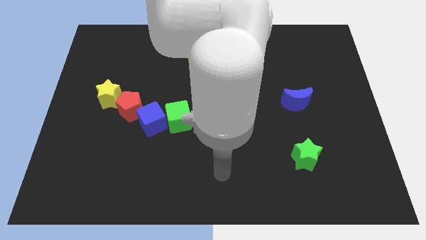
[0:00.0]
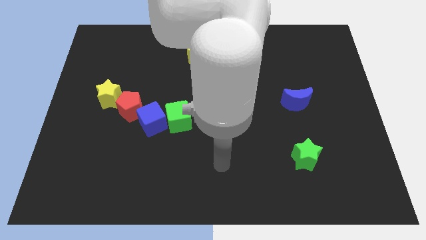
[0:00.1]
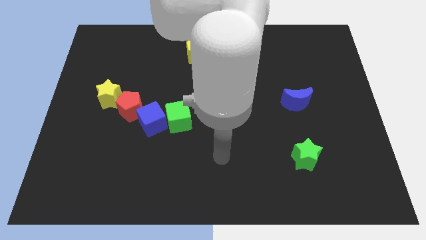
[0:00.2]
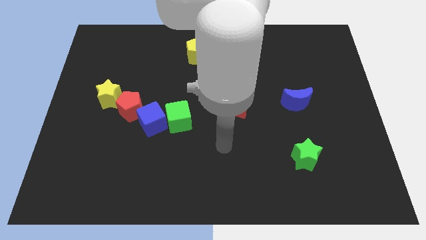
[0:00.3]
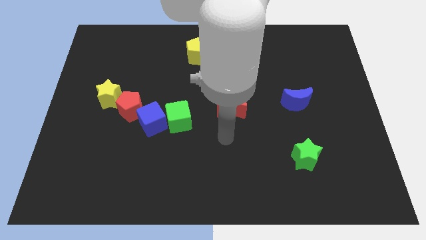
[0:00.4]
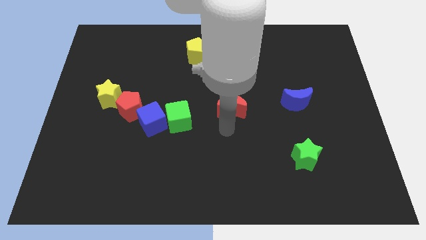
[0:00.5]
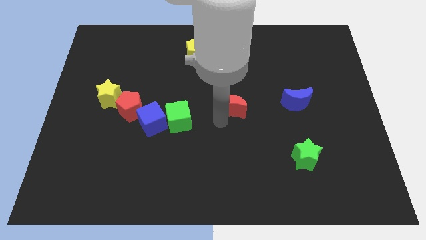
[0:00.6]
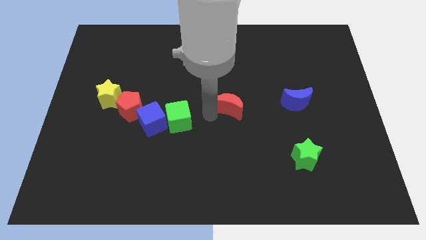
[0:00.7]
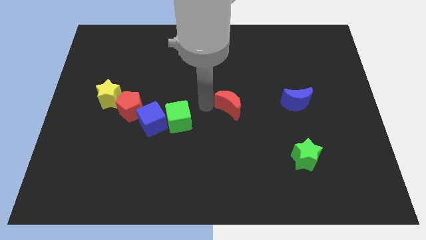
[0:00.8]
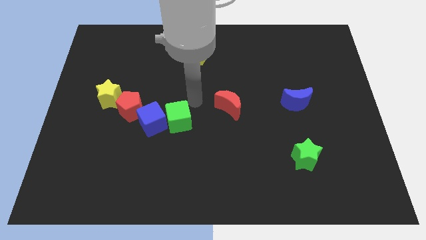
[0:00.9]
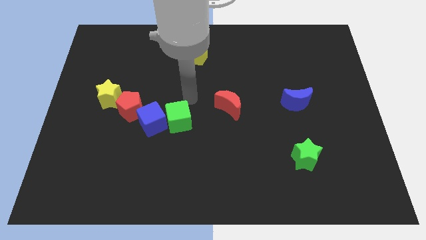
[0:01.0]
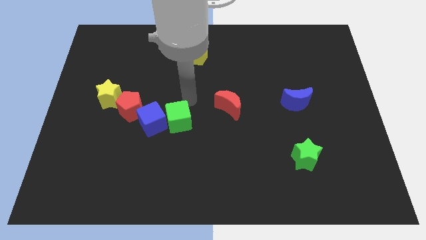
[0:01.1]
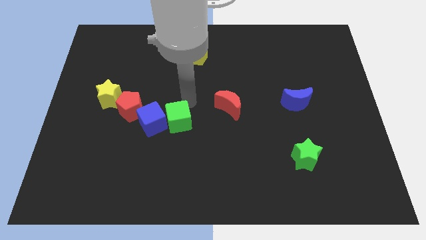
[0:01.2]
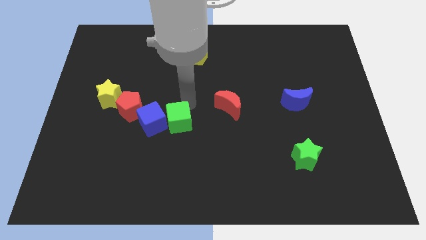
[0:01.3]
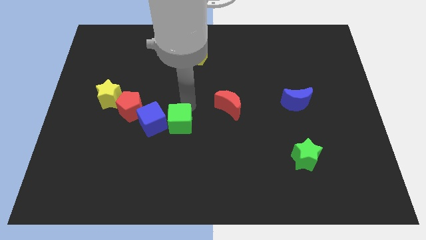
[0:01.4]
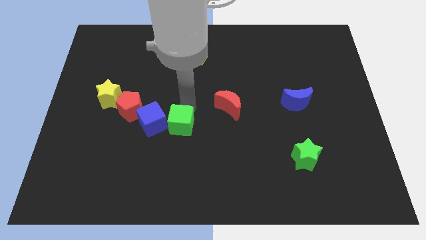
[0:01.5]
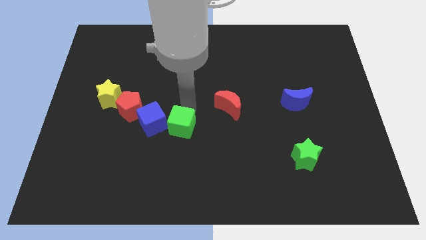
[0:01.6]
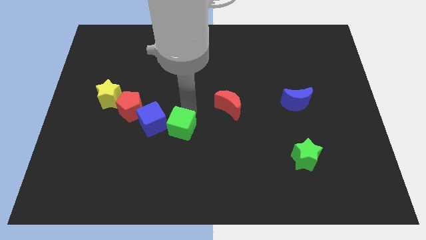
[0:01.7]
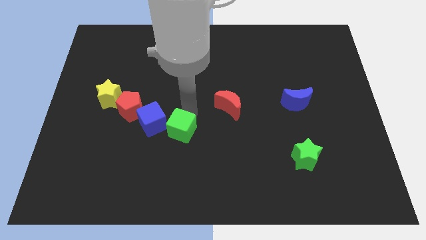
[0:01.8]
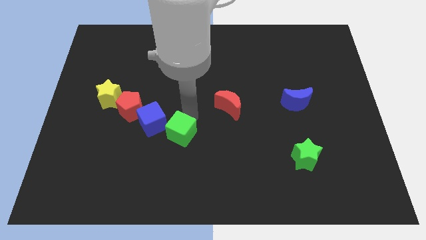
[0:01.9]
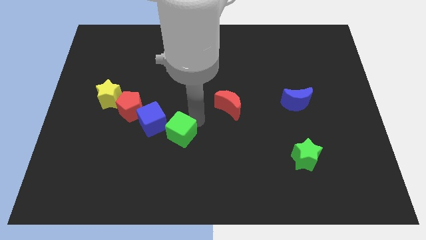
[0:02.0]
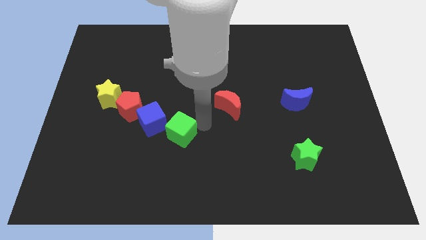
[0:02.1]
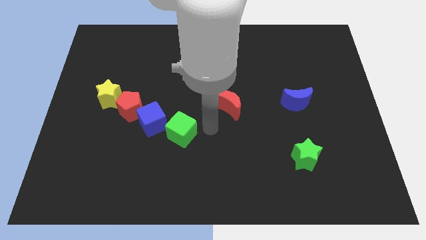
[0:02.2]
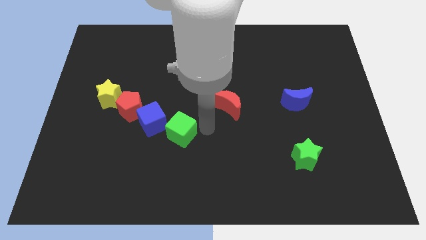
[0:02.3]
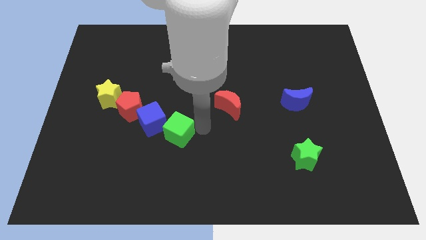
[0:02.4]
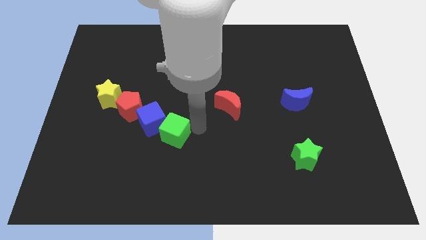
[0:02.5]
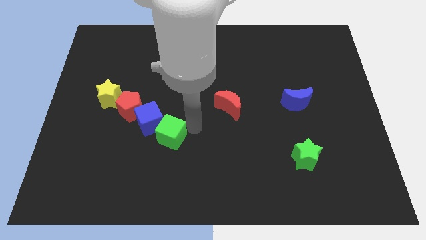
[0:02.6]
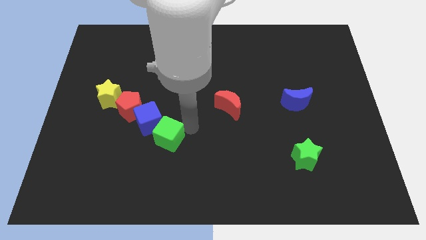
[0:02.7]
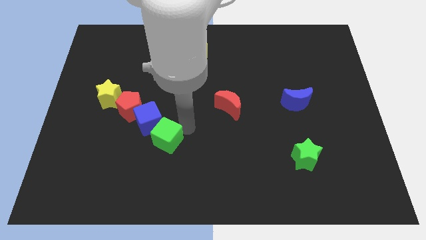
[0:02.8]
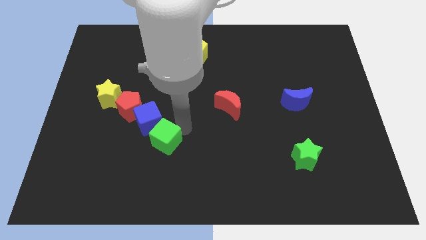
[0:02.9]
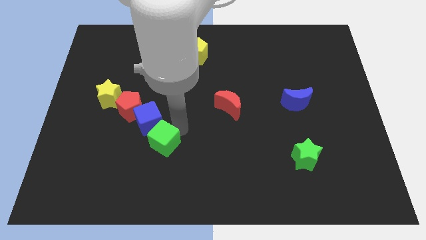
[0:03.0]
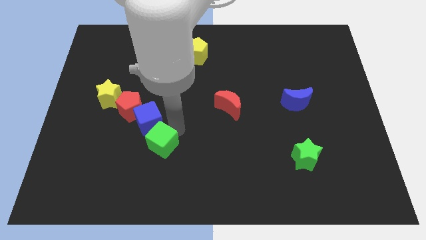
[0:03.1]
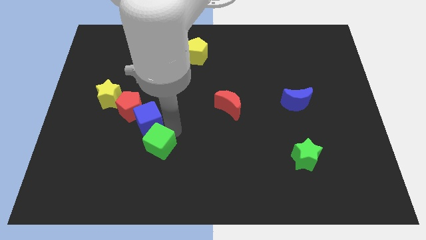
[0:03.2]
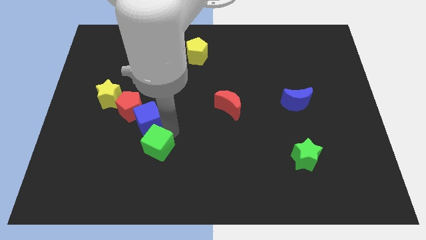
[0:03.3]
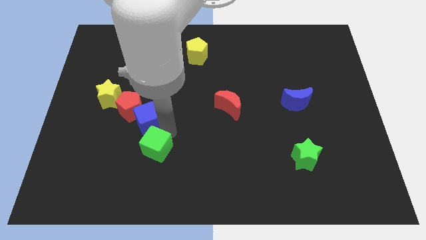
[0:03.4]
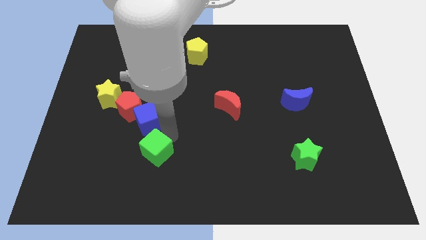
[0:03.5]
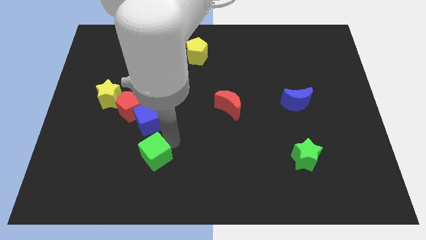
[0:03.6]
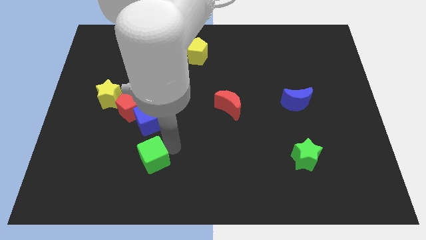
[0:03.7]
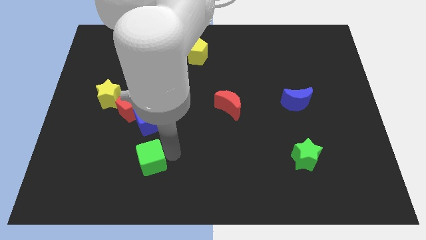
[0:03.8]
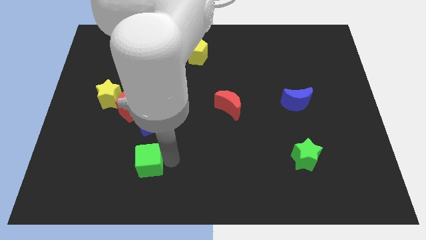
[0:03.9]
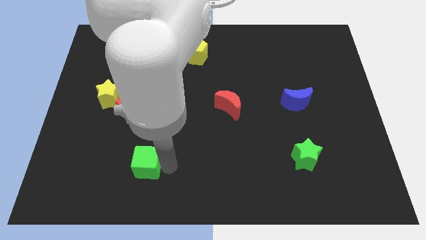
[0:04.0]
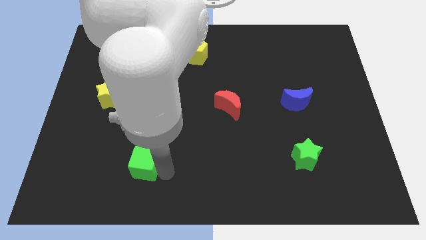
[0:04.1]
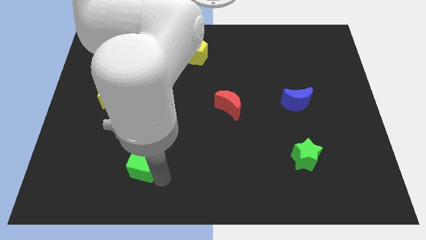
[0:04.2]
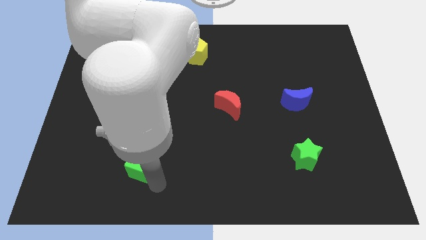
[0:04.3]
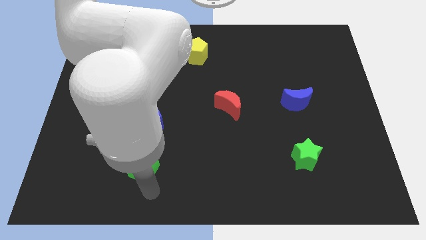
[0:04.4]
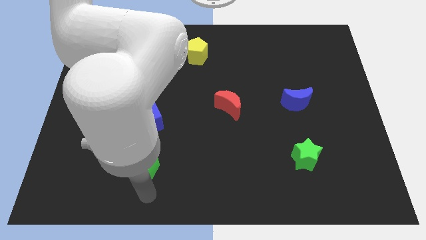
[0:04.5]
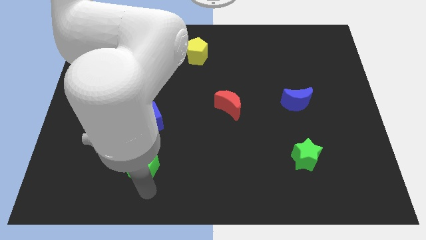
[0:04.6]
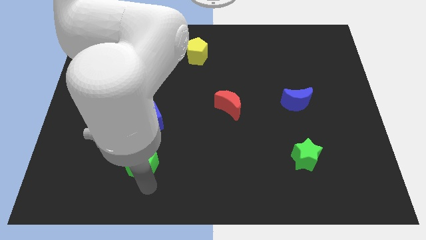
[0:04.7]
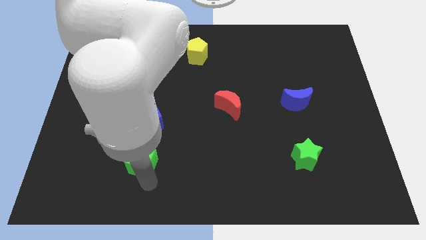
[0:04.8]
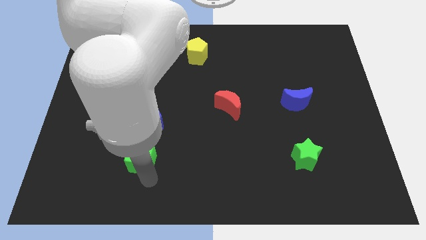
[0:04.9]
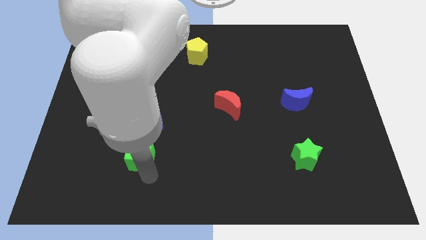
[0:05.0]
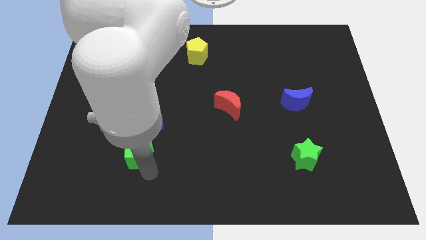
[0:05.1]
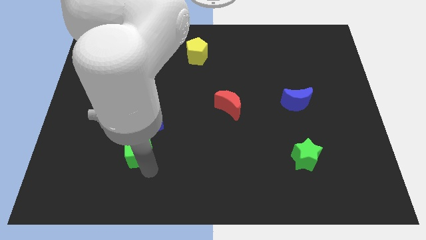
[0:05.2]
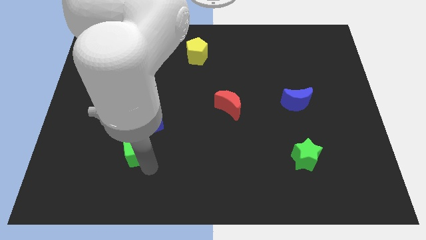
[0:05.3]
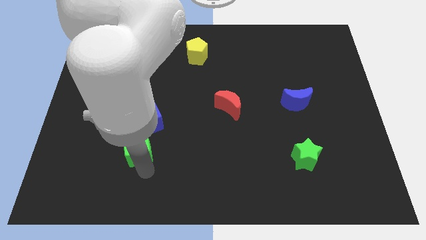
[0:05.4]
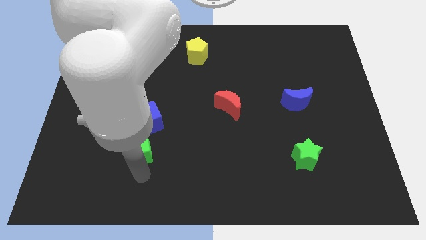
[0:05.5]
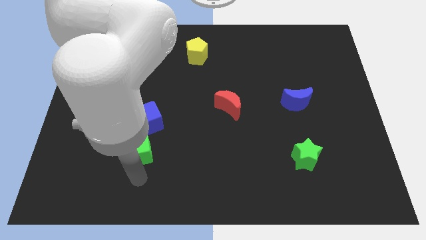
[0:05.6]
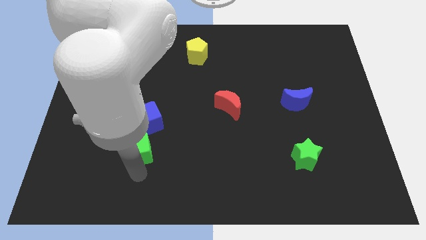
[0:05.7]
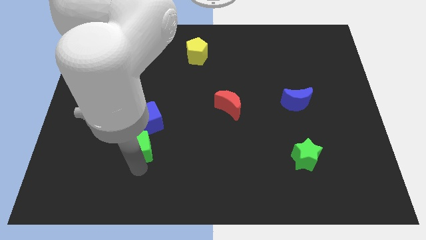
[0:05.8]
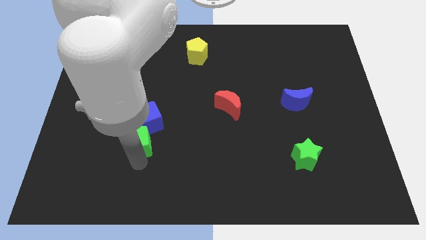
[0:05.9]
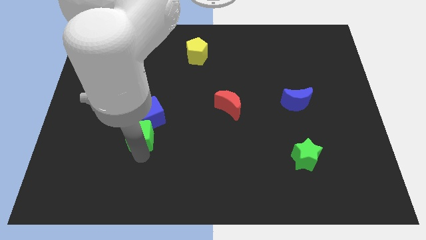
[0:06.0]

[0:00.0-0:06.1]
push the green cube slightly left

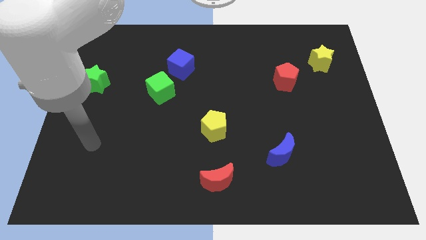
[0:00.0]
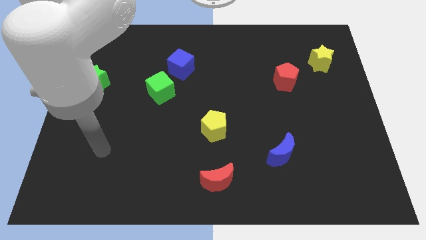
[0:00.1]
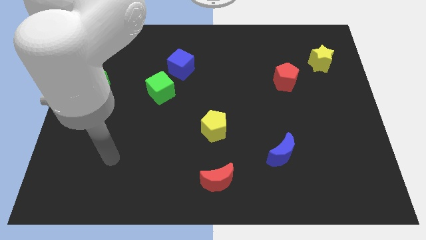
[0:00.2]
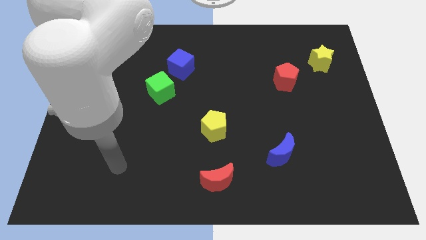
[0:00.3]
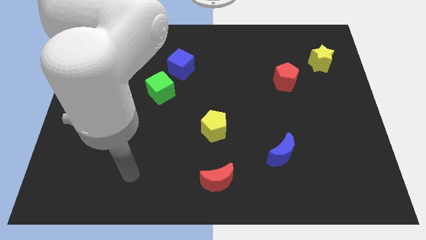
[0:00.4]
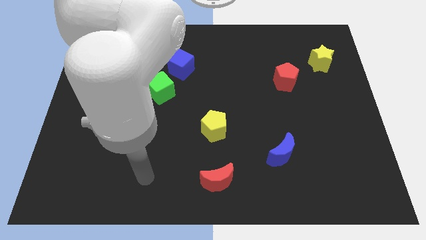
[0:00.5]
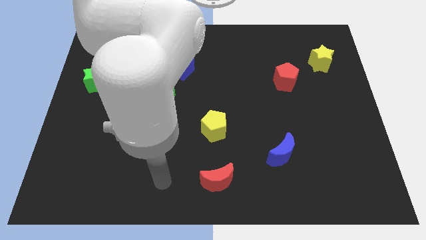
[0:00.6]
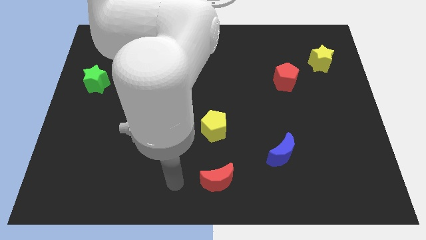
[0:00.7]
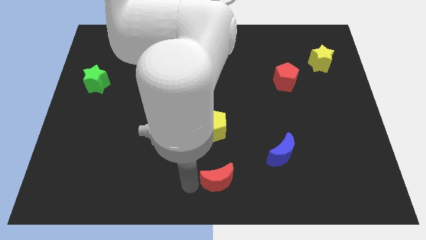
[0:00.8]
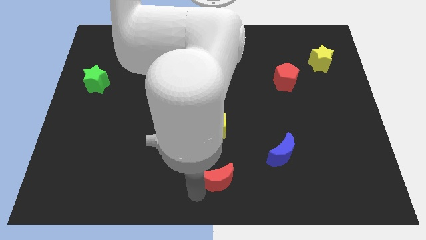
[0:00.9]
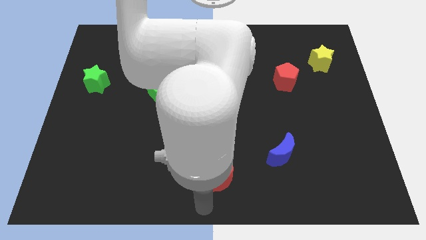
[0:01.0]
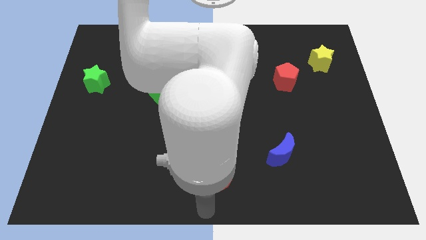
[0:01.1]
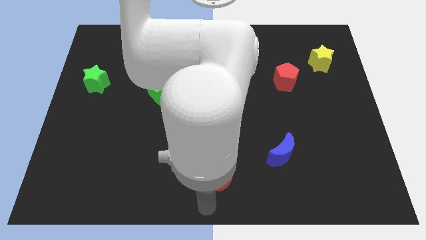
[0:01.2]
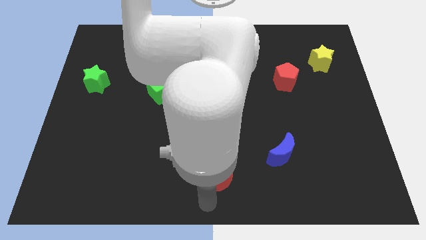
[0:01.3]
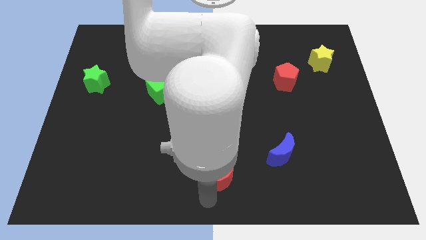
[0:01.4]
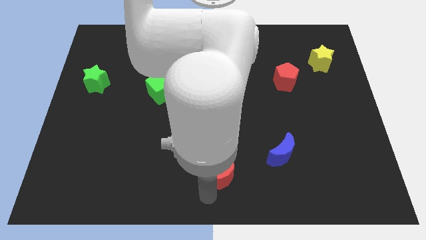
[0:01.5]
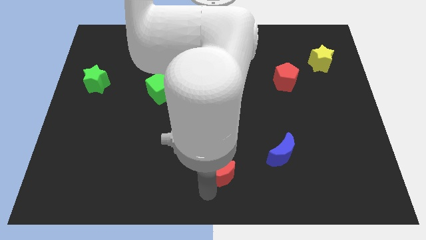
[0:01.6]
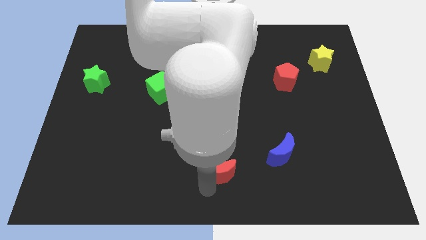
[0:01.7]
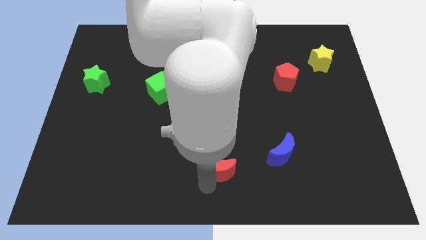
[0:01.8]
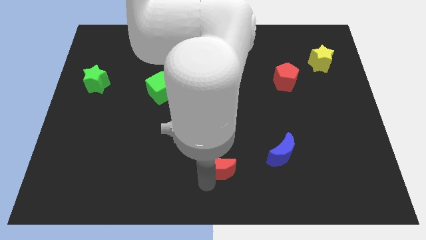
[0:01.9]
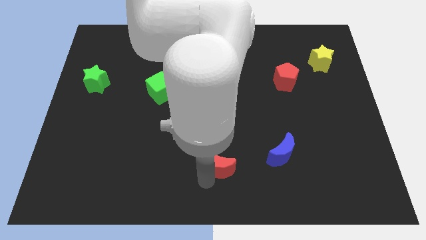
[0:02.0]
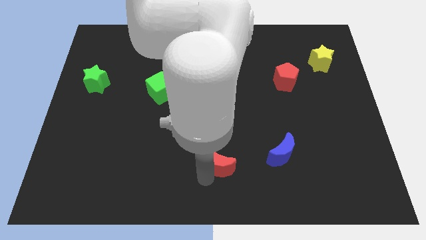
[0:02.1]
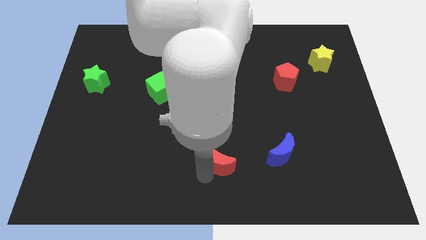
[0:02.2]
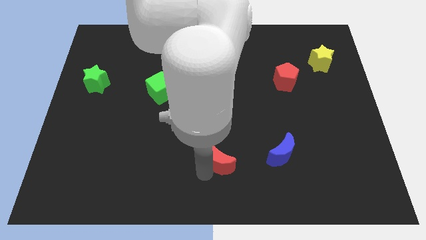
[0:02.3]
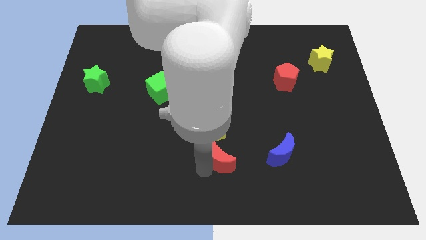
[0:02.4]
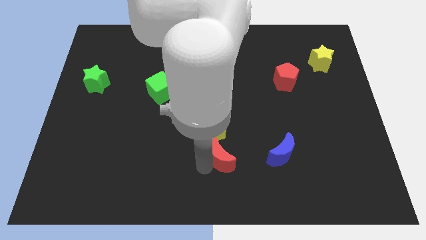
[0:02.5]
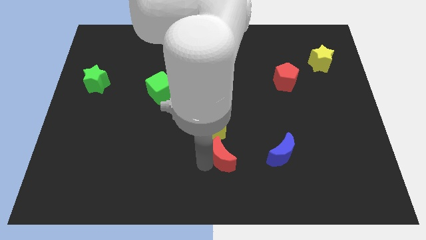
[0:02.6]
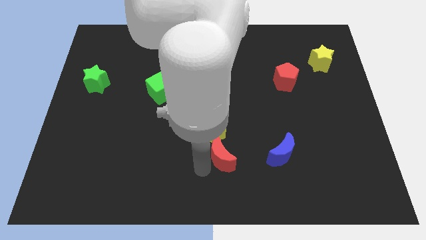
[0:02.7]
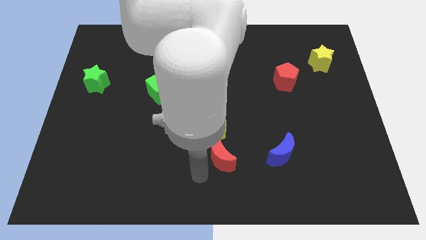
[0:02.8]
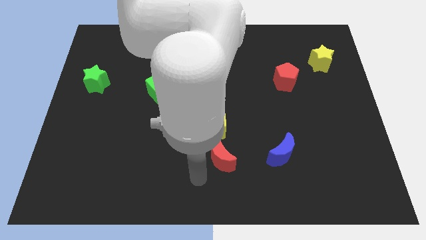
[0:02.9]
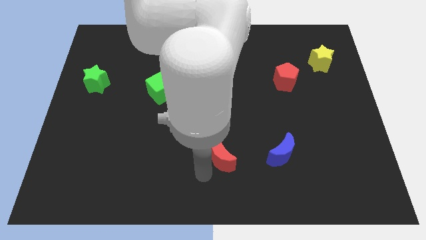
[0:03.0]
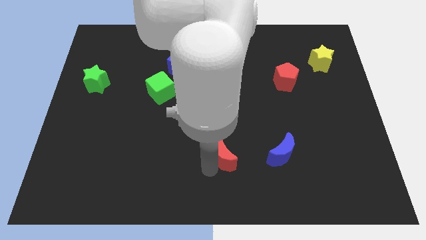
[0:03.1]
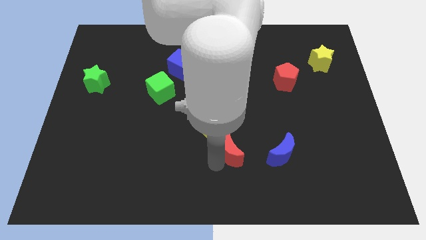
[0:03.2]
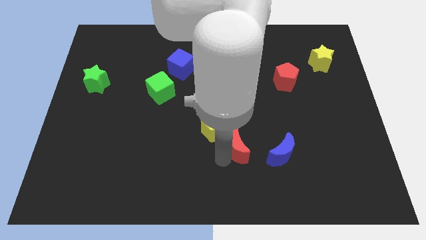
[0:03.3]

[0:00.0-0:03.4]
move the red moon up a little
